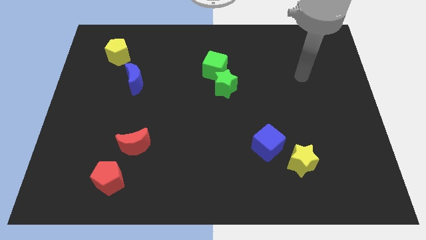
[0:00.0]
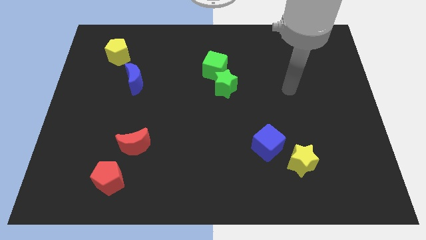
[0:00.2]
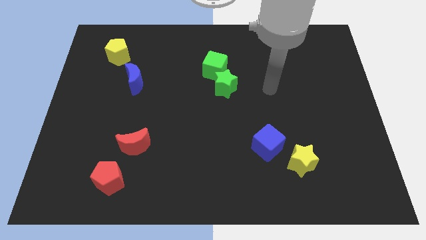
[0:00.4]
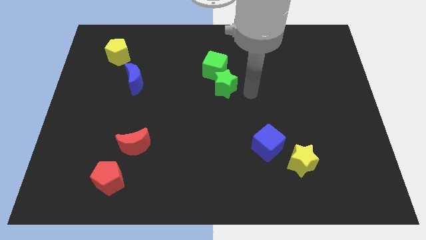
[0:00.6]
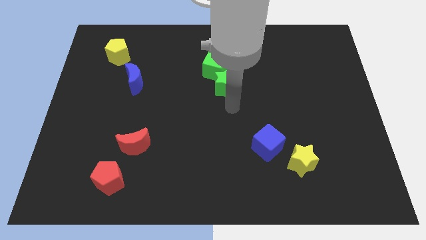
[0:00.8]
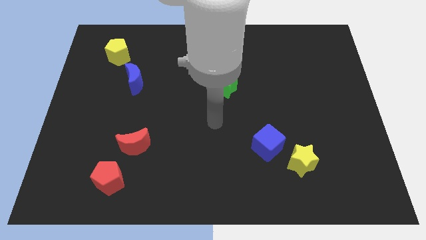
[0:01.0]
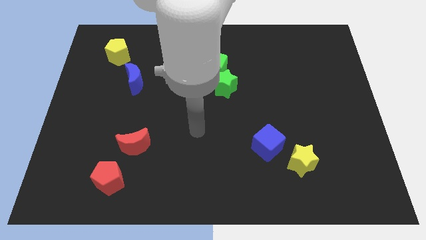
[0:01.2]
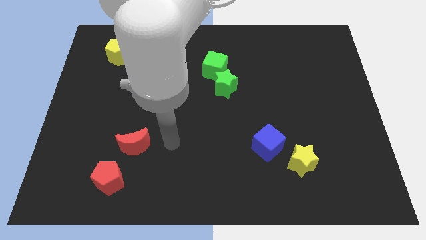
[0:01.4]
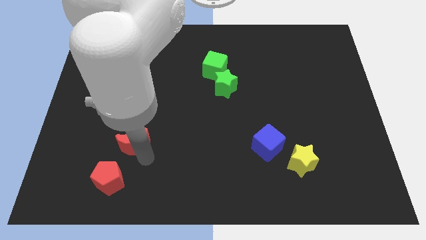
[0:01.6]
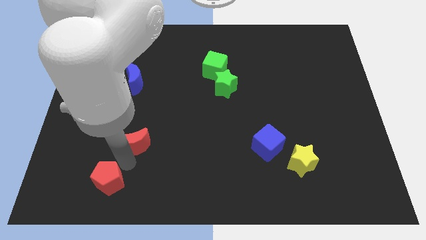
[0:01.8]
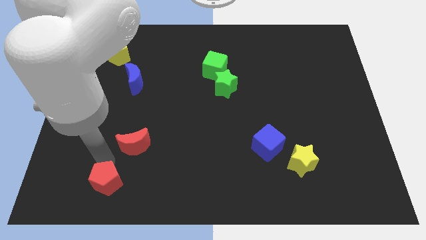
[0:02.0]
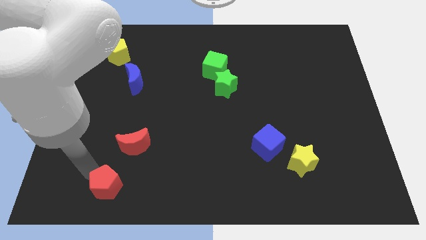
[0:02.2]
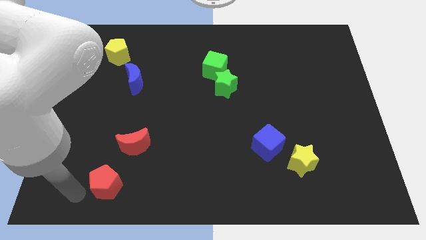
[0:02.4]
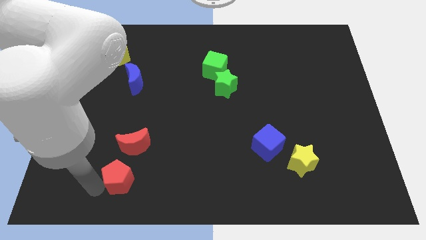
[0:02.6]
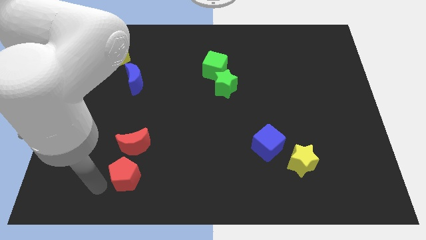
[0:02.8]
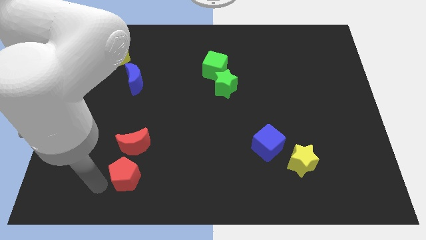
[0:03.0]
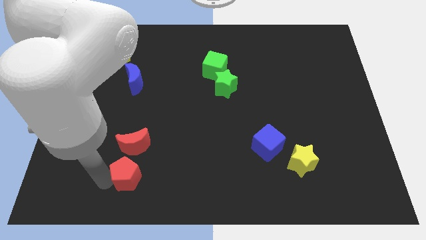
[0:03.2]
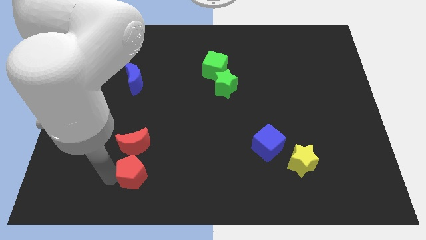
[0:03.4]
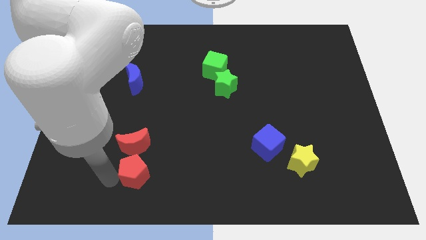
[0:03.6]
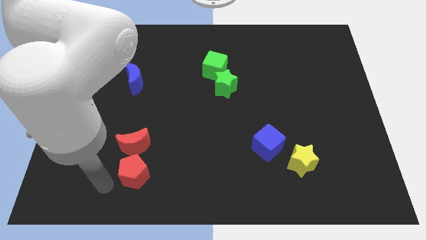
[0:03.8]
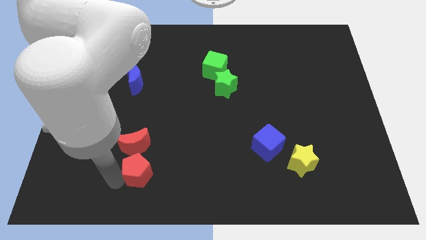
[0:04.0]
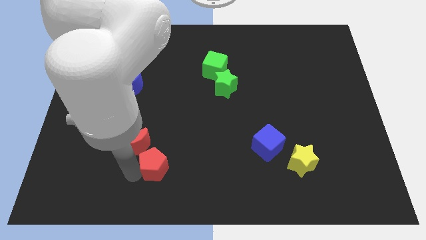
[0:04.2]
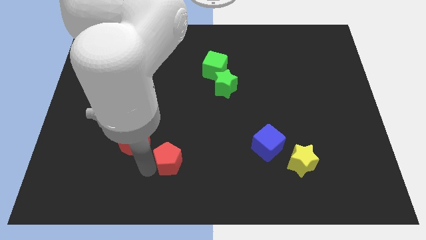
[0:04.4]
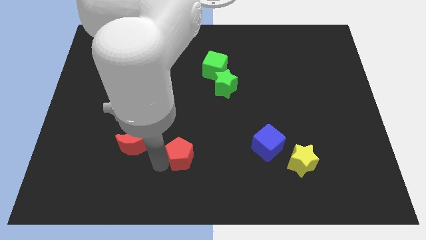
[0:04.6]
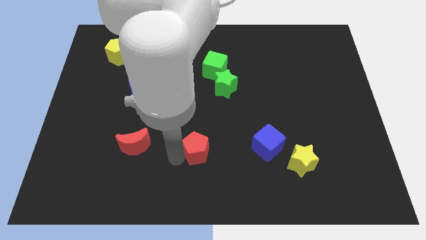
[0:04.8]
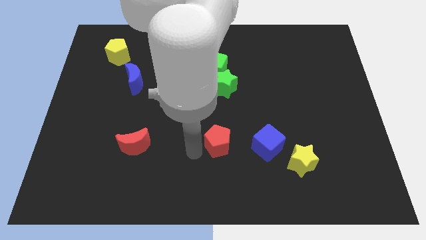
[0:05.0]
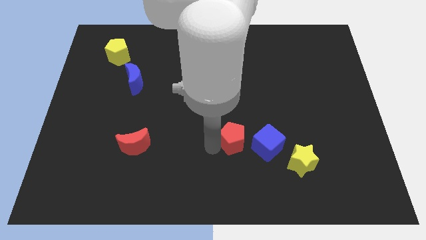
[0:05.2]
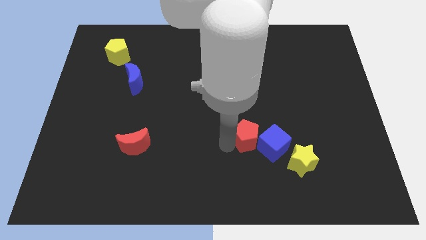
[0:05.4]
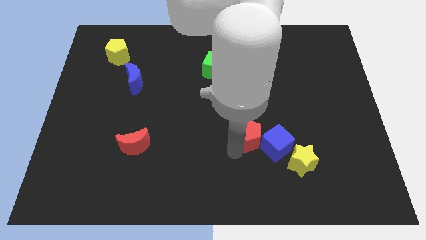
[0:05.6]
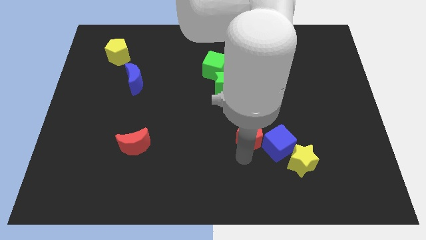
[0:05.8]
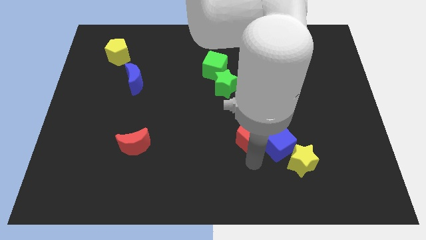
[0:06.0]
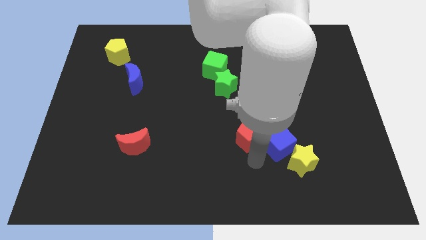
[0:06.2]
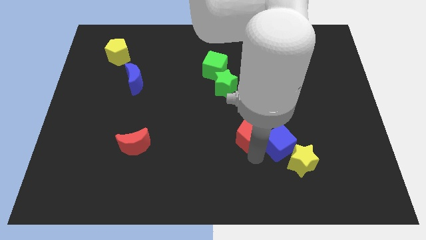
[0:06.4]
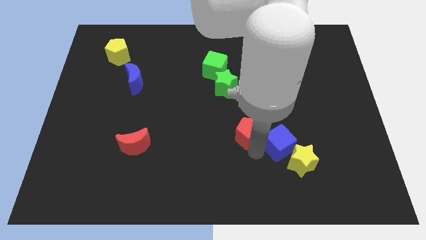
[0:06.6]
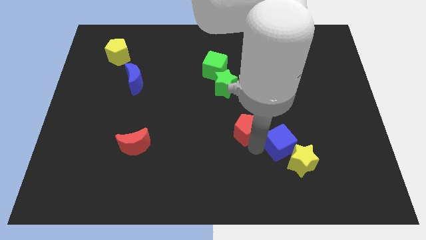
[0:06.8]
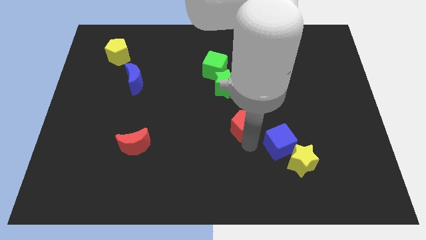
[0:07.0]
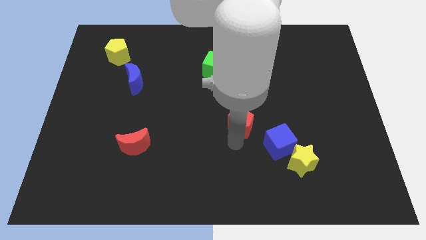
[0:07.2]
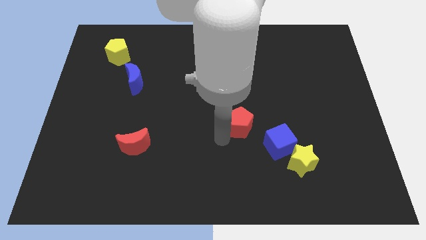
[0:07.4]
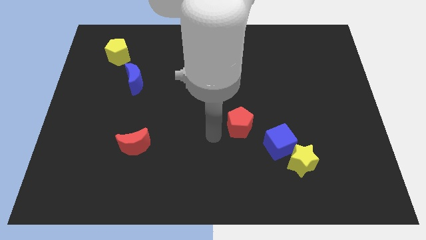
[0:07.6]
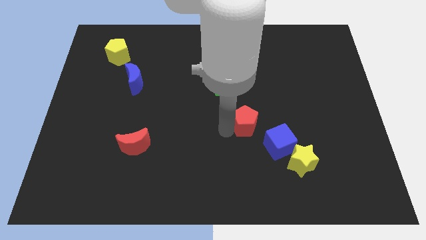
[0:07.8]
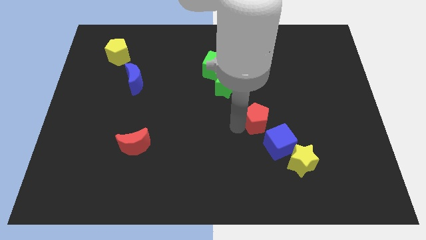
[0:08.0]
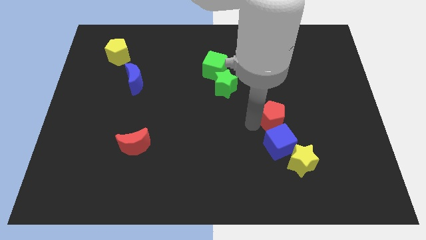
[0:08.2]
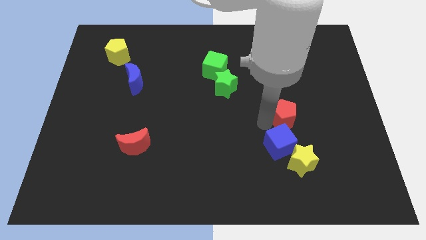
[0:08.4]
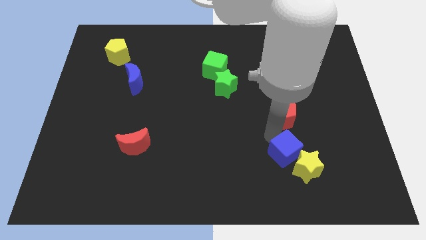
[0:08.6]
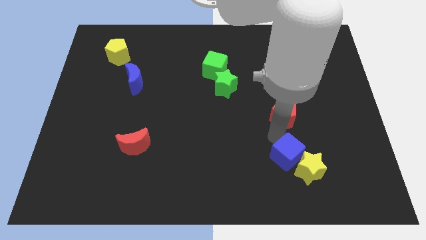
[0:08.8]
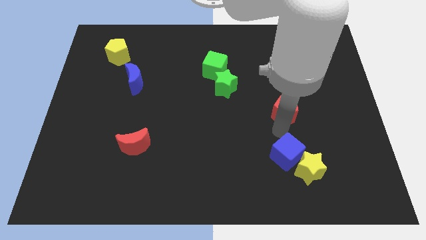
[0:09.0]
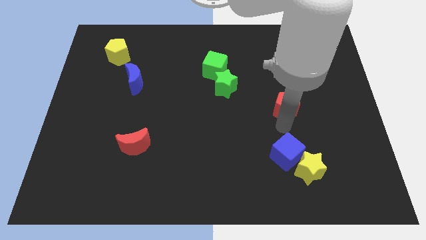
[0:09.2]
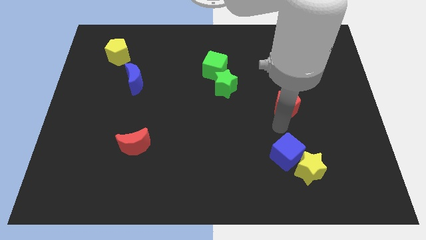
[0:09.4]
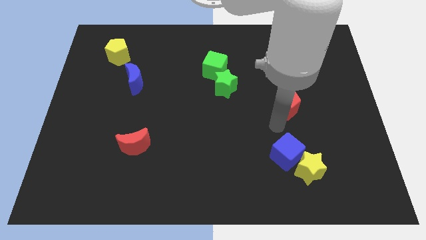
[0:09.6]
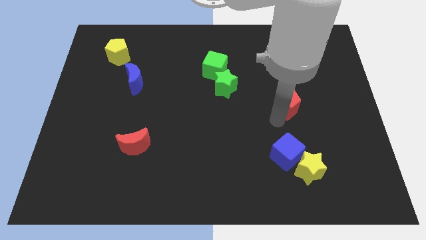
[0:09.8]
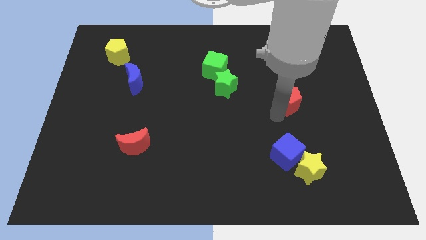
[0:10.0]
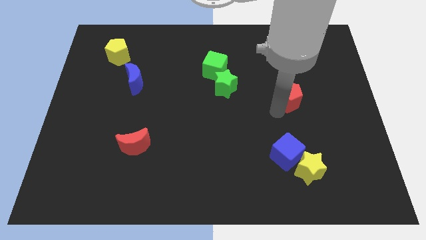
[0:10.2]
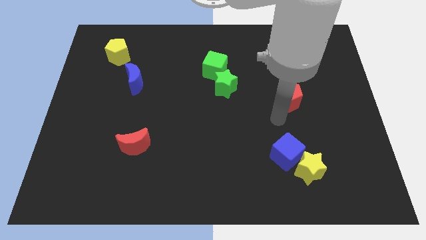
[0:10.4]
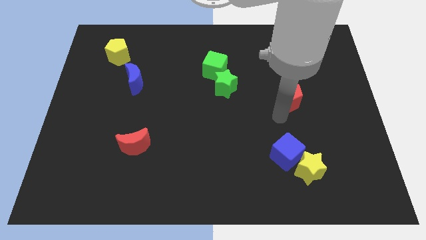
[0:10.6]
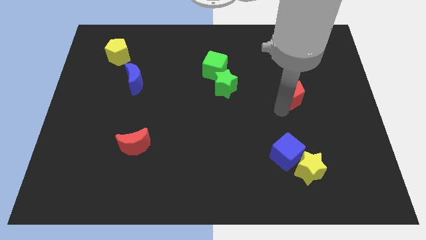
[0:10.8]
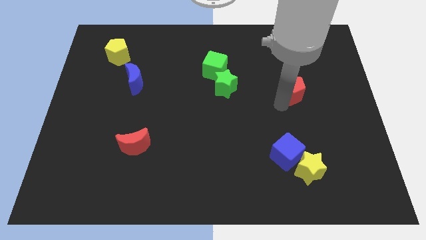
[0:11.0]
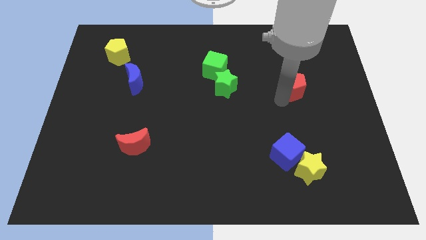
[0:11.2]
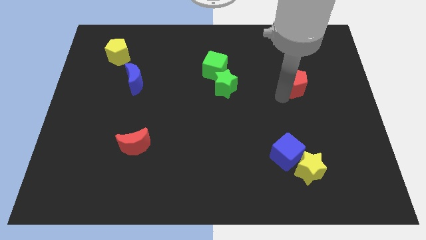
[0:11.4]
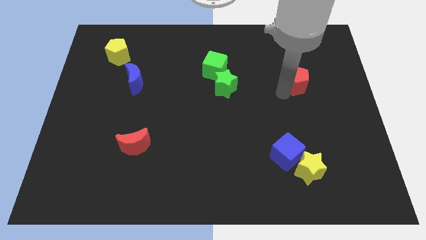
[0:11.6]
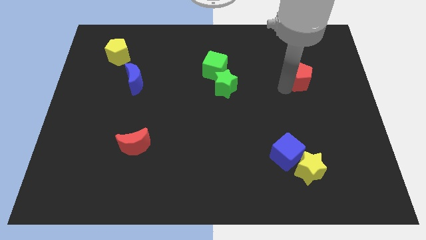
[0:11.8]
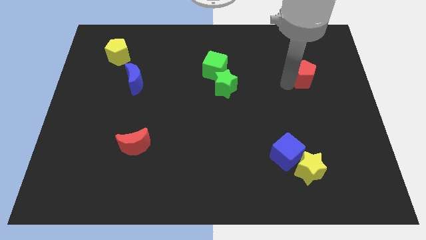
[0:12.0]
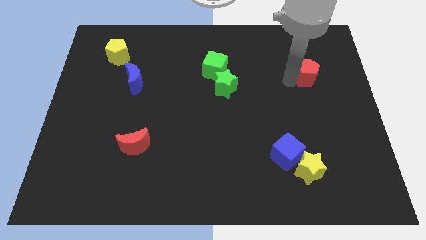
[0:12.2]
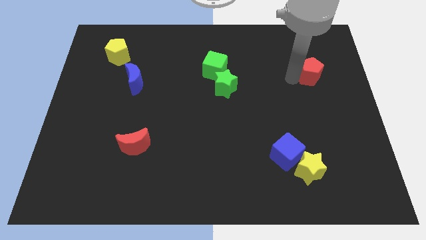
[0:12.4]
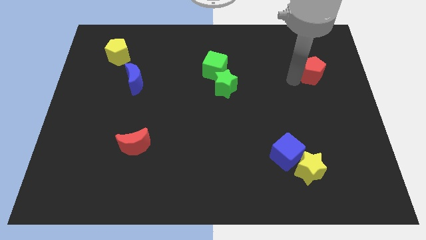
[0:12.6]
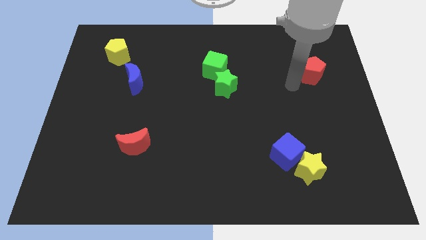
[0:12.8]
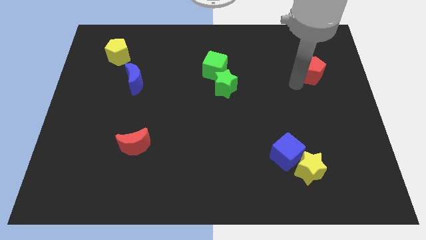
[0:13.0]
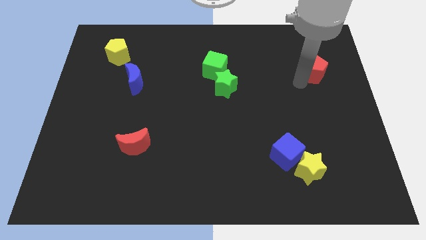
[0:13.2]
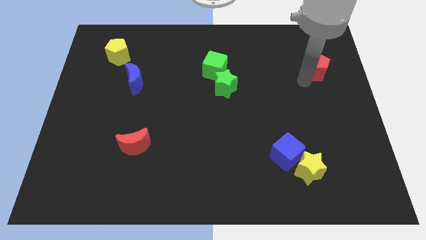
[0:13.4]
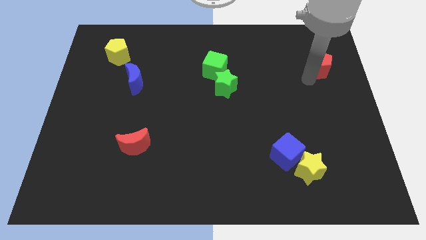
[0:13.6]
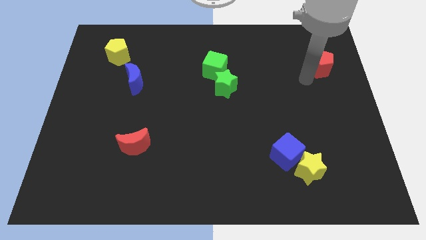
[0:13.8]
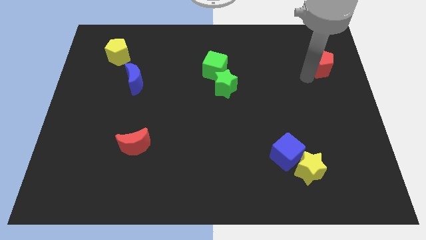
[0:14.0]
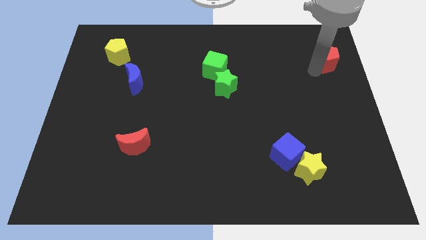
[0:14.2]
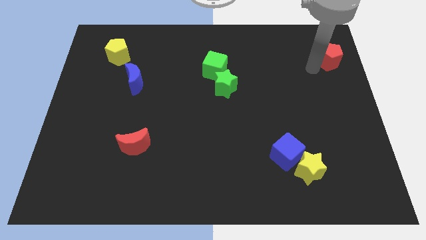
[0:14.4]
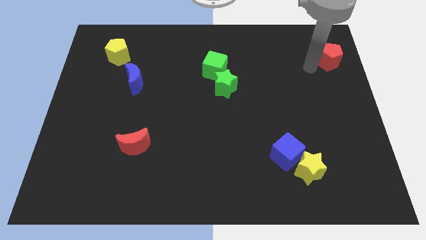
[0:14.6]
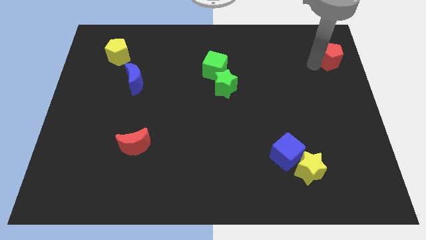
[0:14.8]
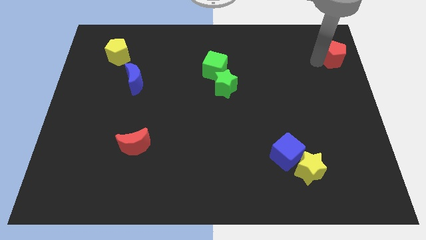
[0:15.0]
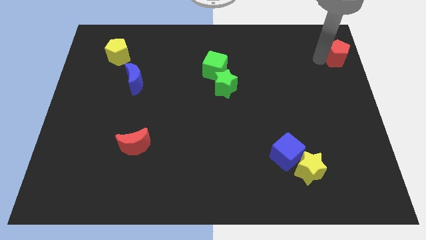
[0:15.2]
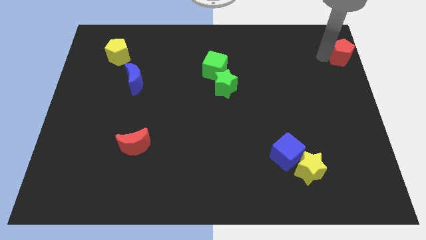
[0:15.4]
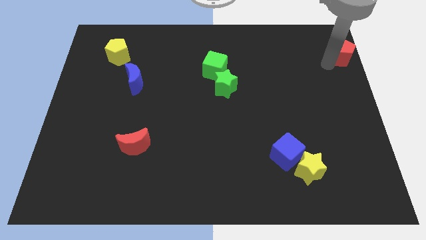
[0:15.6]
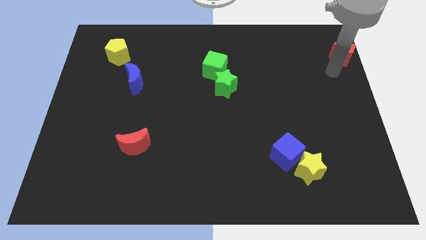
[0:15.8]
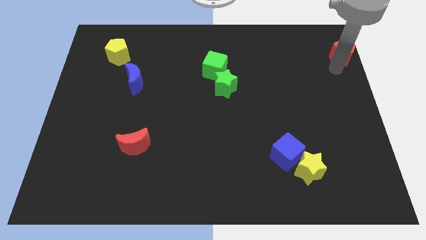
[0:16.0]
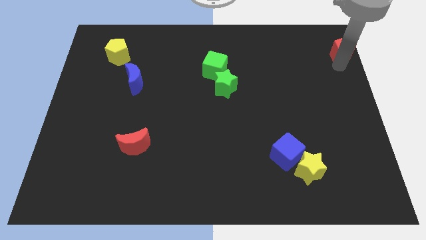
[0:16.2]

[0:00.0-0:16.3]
put the red pentagon to the top right corner
